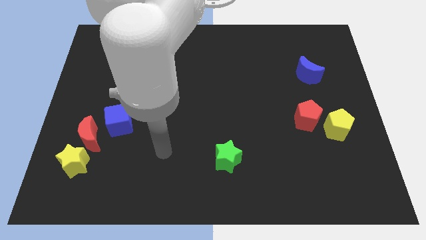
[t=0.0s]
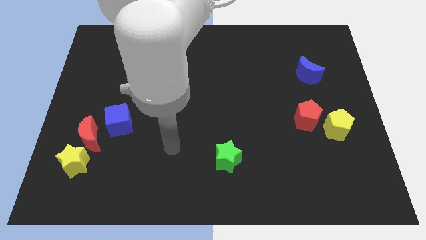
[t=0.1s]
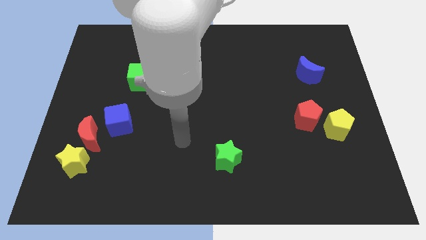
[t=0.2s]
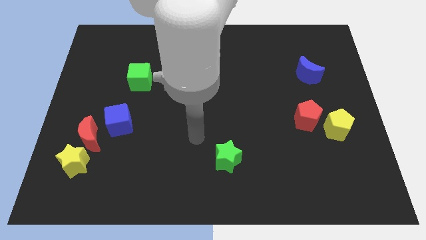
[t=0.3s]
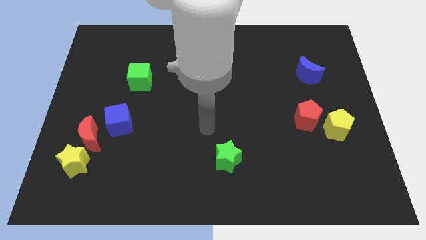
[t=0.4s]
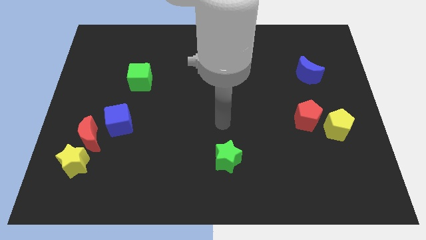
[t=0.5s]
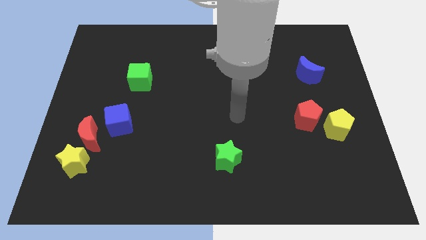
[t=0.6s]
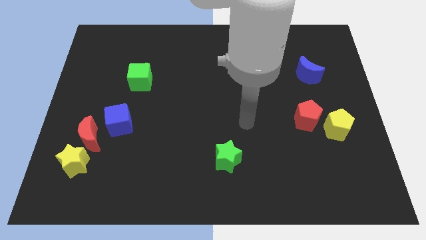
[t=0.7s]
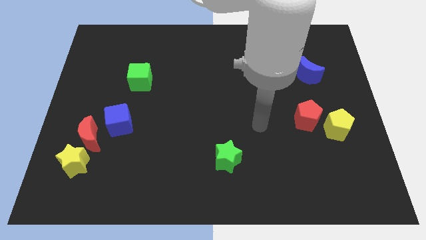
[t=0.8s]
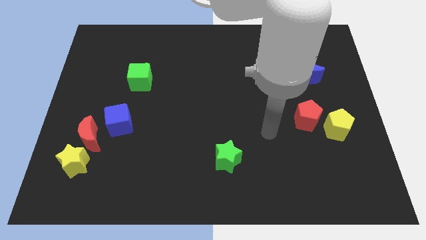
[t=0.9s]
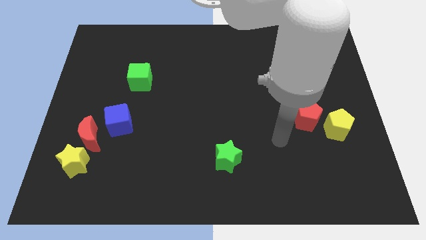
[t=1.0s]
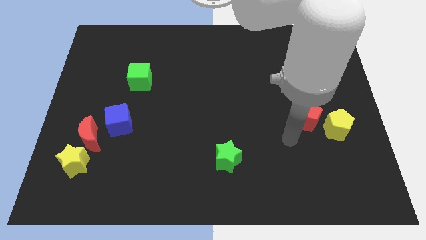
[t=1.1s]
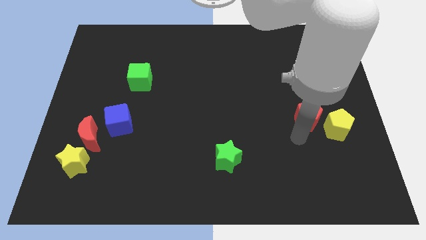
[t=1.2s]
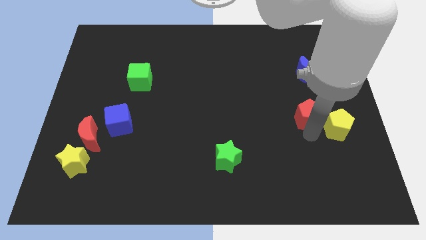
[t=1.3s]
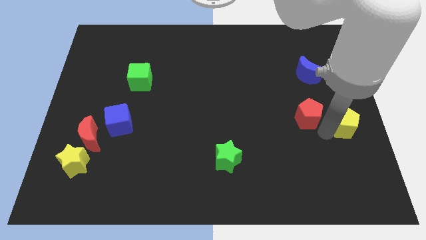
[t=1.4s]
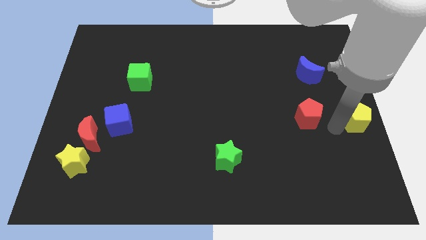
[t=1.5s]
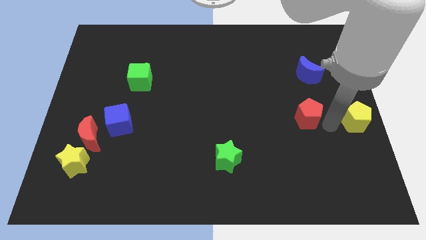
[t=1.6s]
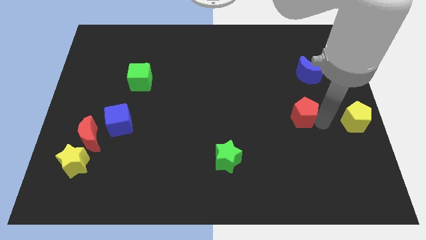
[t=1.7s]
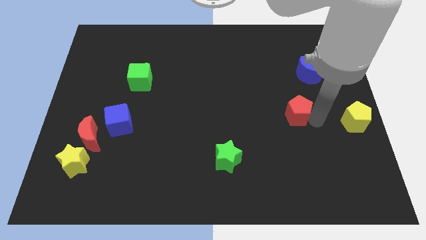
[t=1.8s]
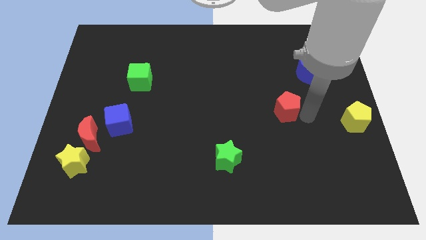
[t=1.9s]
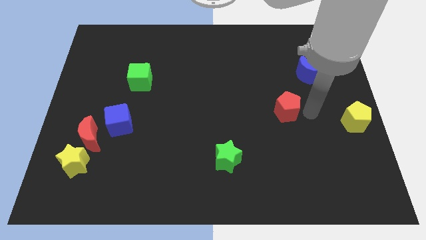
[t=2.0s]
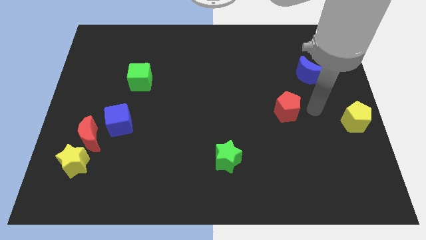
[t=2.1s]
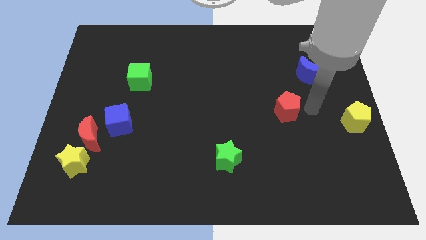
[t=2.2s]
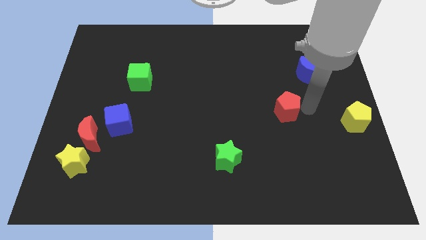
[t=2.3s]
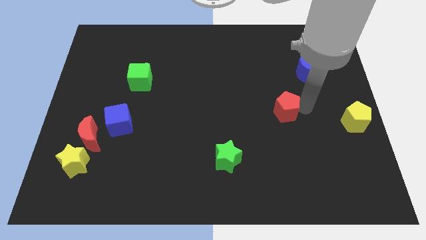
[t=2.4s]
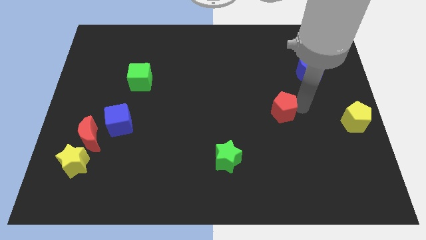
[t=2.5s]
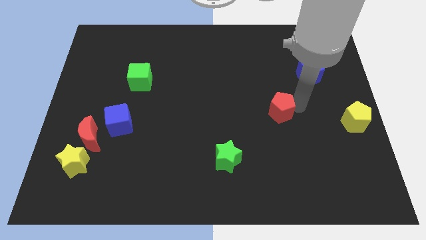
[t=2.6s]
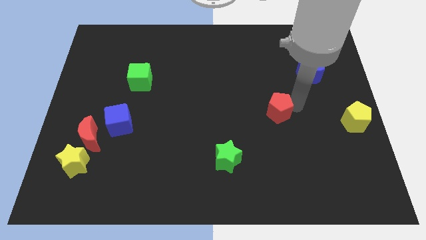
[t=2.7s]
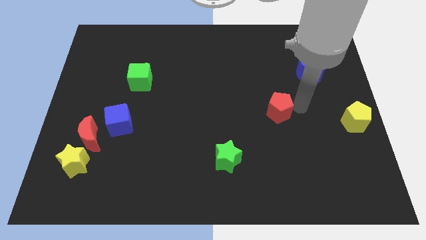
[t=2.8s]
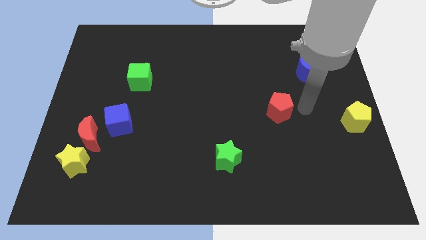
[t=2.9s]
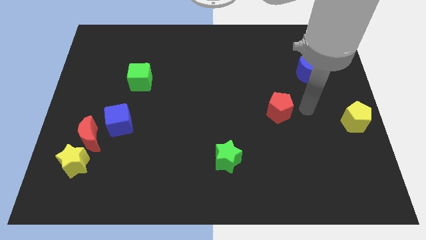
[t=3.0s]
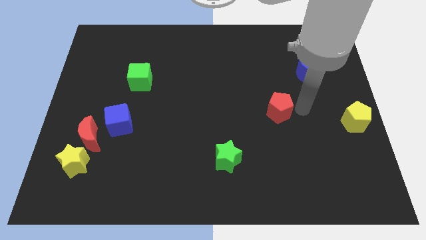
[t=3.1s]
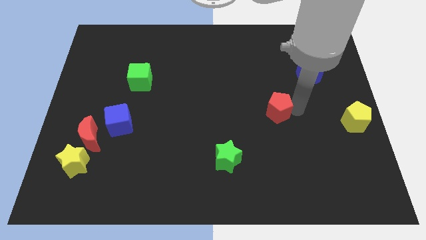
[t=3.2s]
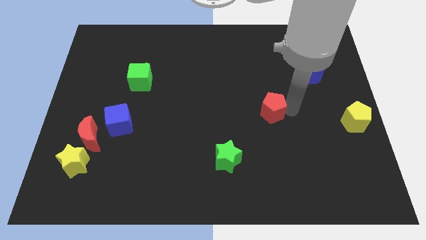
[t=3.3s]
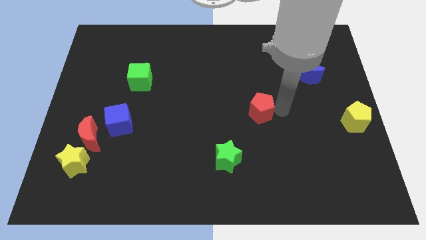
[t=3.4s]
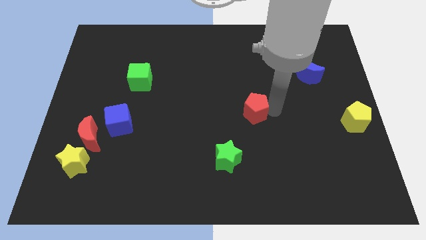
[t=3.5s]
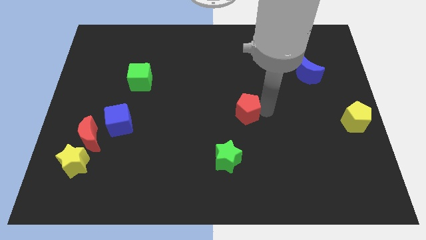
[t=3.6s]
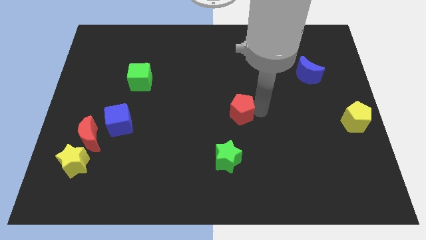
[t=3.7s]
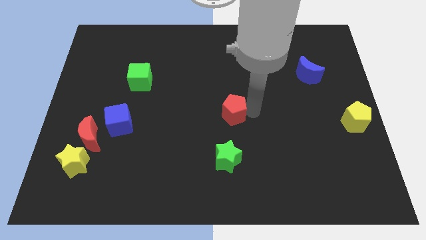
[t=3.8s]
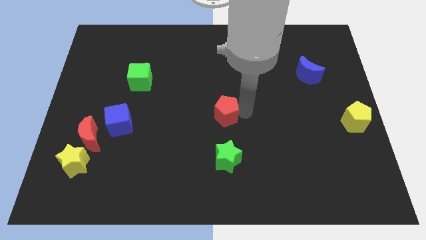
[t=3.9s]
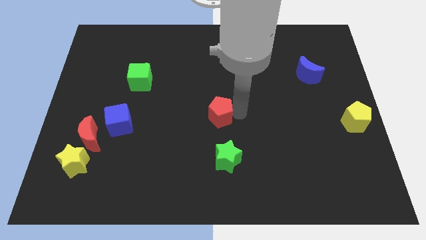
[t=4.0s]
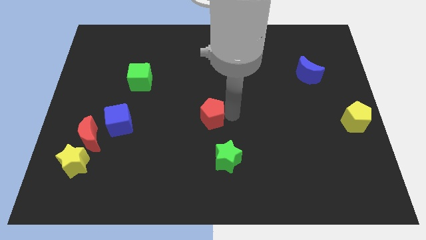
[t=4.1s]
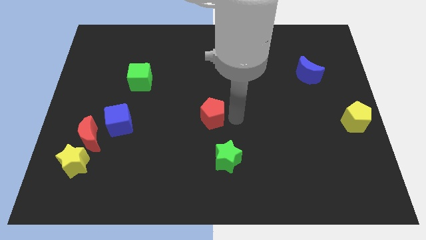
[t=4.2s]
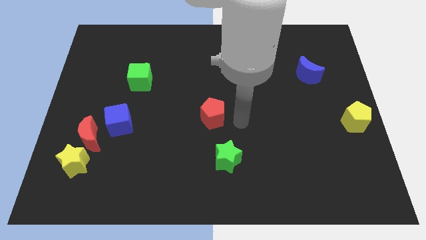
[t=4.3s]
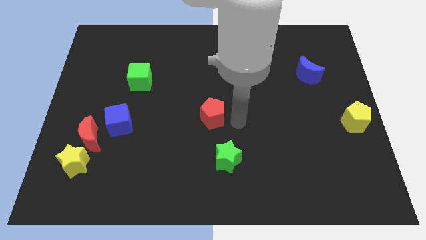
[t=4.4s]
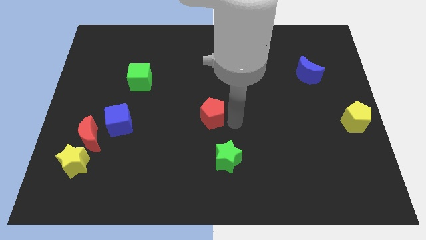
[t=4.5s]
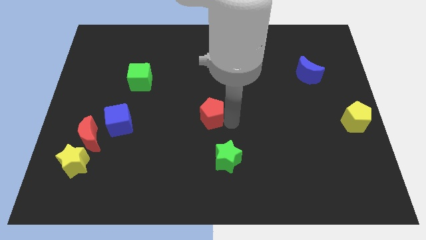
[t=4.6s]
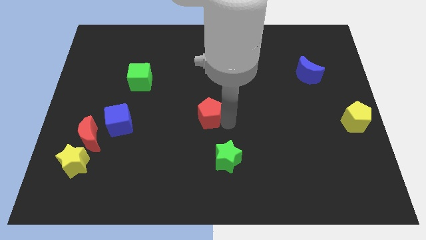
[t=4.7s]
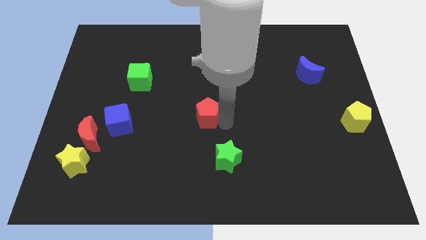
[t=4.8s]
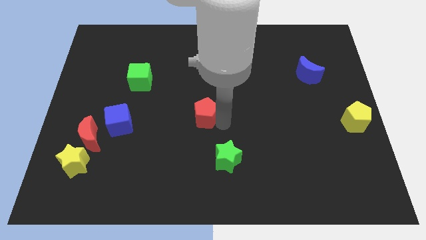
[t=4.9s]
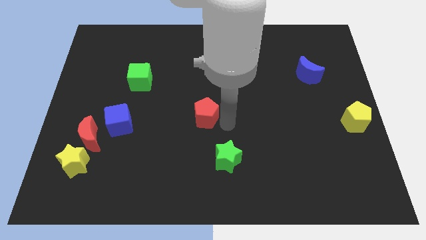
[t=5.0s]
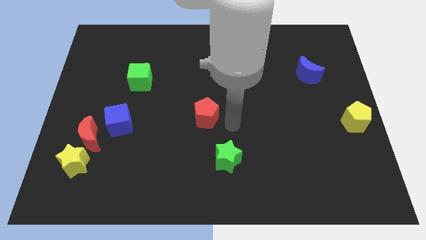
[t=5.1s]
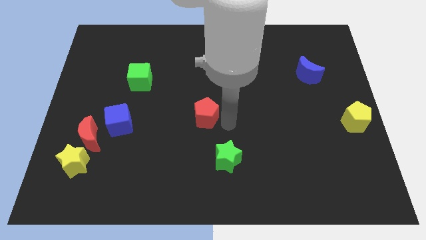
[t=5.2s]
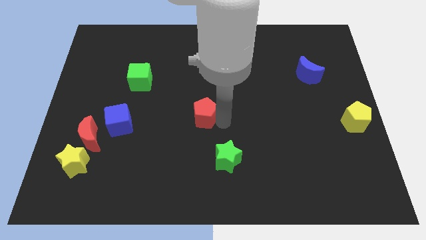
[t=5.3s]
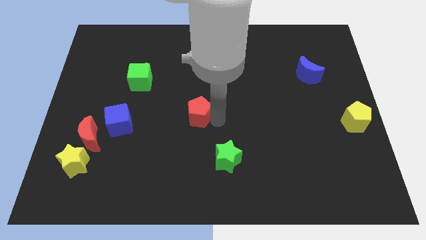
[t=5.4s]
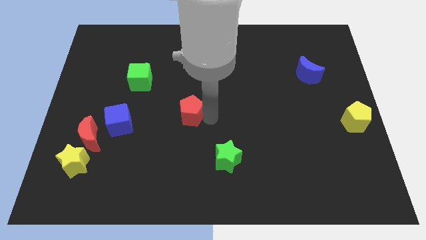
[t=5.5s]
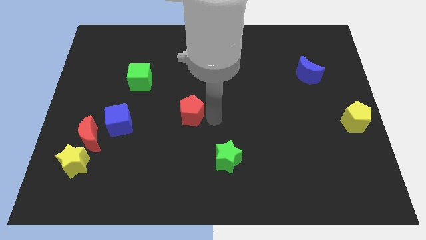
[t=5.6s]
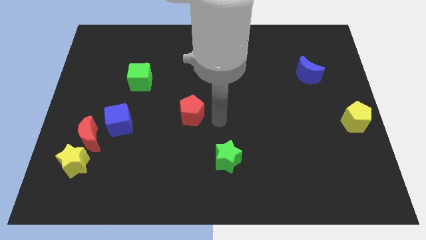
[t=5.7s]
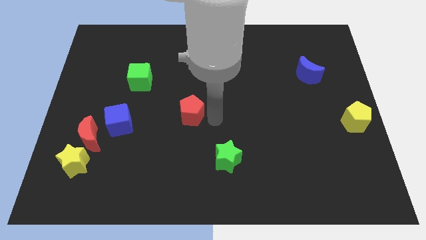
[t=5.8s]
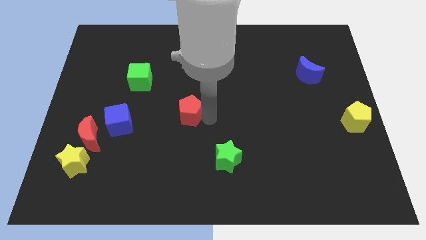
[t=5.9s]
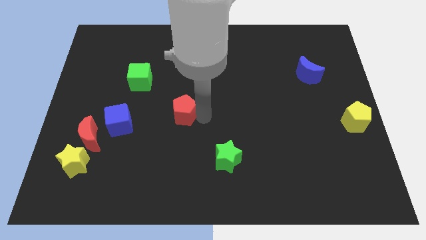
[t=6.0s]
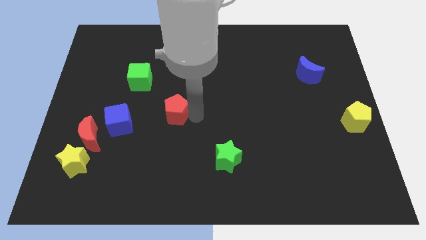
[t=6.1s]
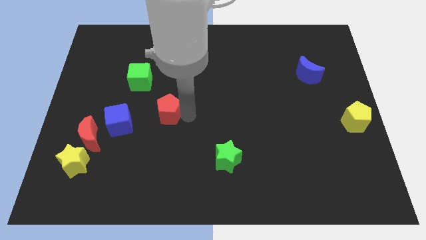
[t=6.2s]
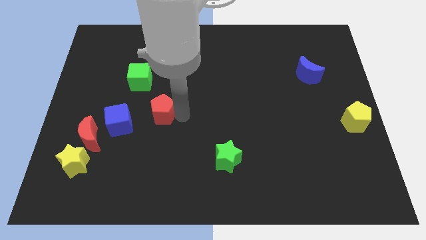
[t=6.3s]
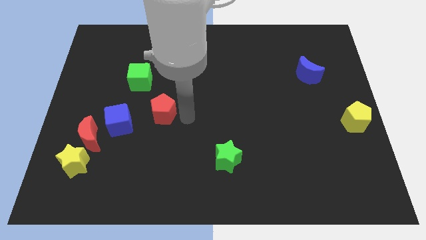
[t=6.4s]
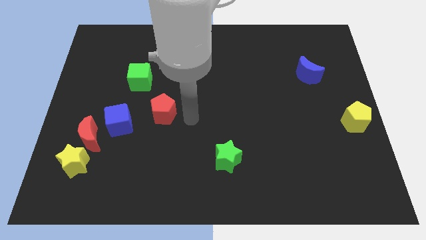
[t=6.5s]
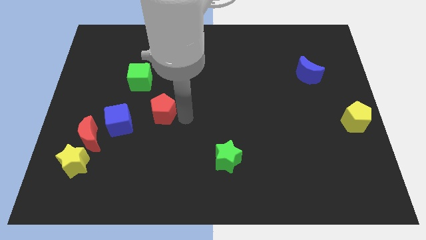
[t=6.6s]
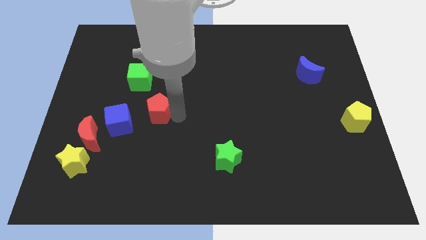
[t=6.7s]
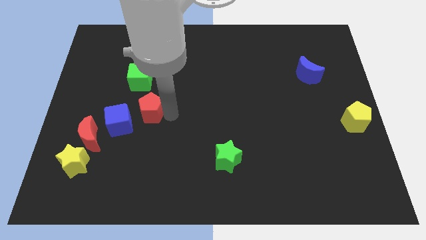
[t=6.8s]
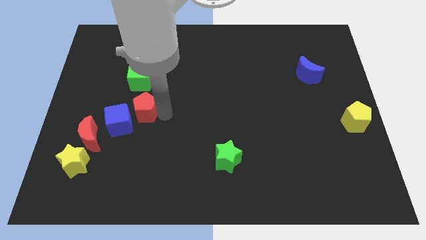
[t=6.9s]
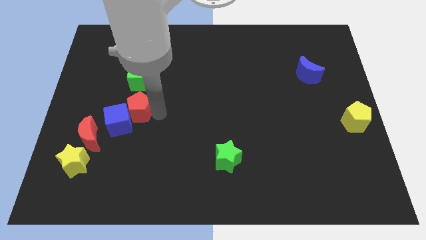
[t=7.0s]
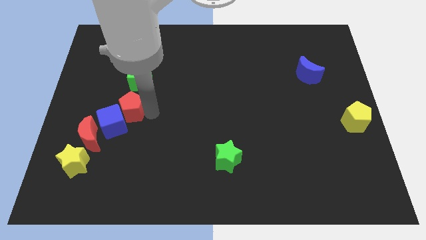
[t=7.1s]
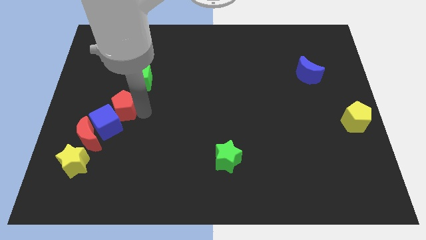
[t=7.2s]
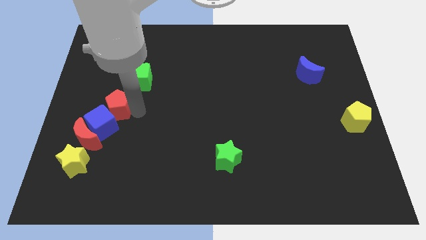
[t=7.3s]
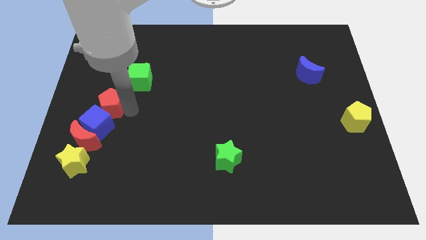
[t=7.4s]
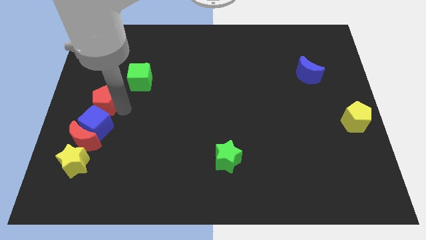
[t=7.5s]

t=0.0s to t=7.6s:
move the red pentagon to the center left
